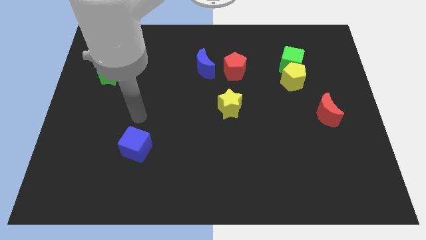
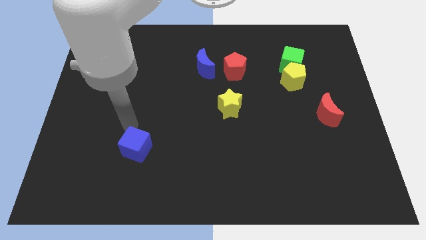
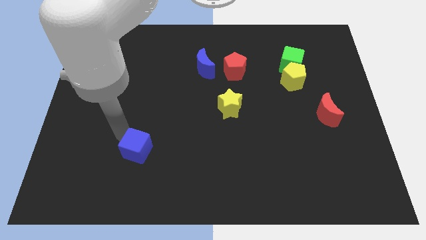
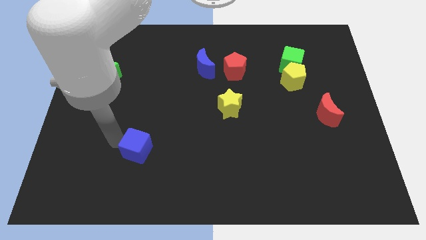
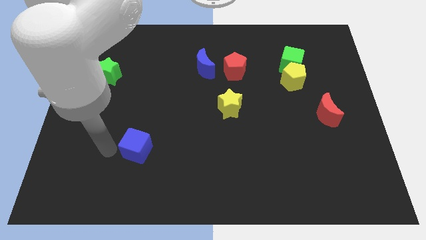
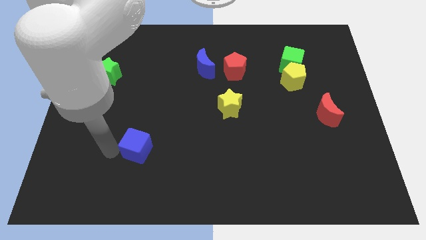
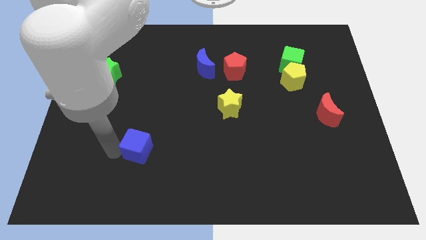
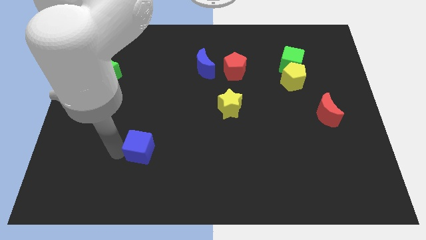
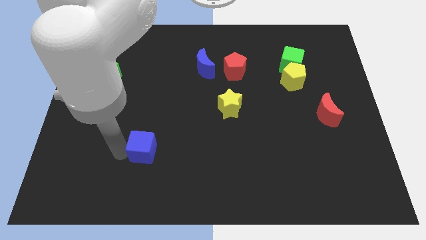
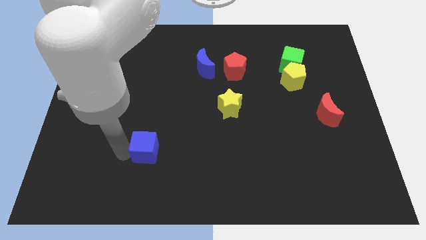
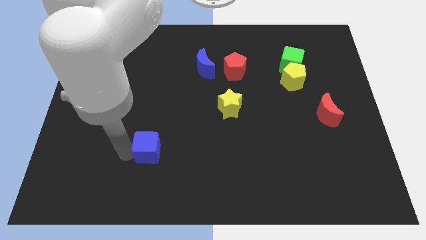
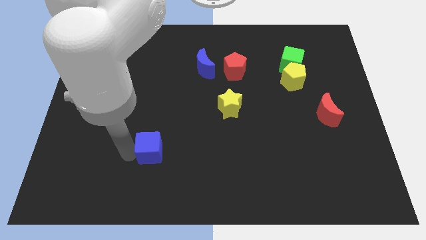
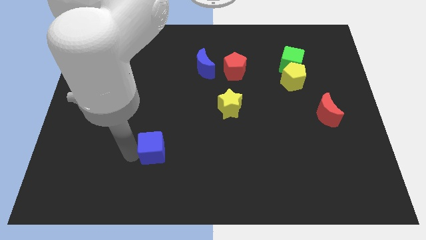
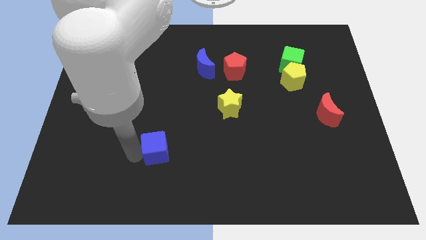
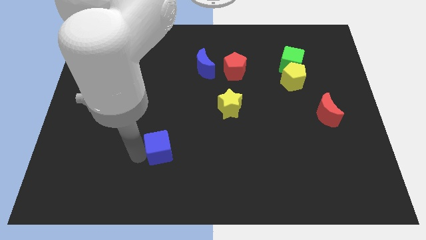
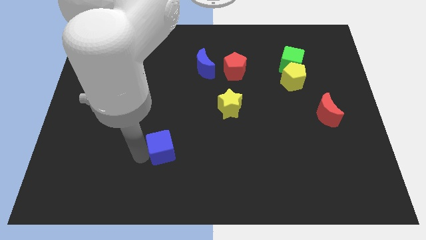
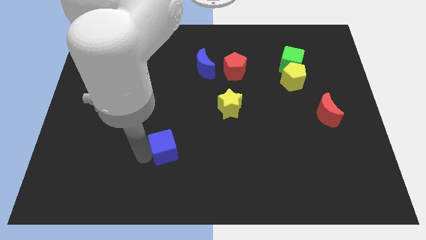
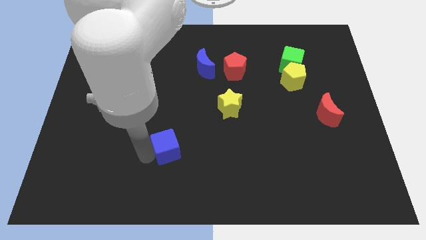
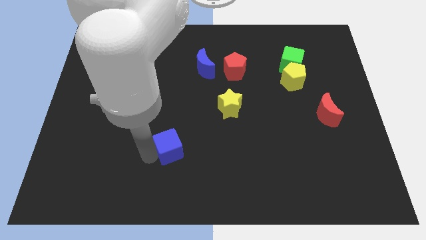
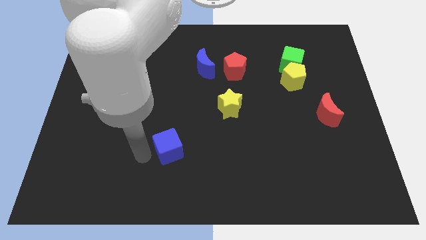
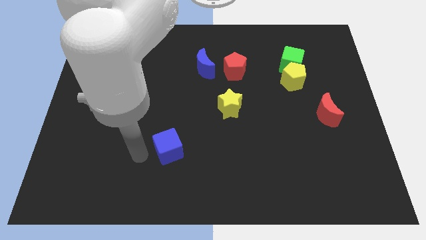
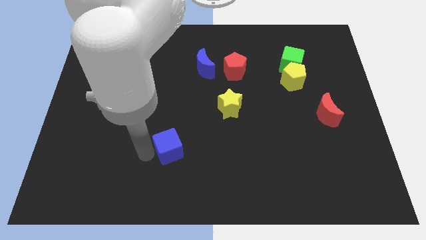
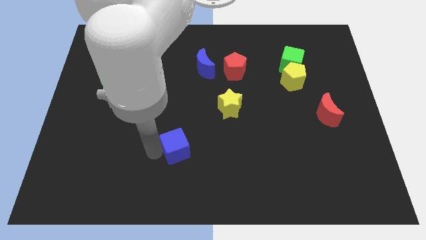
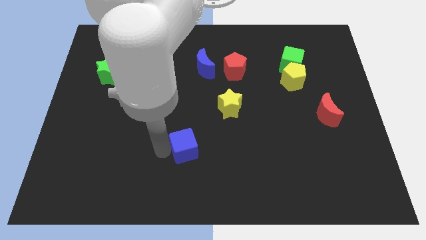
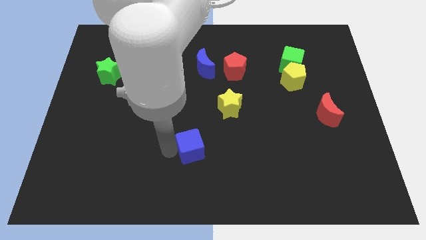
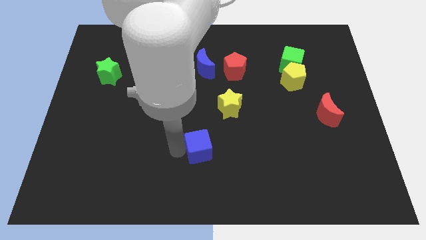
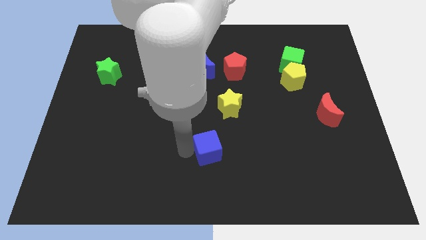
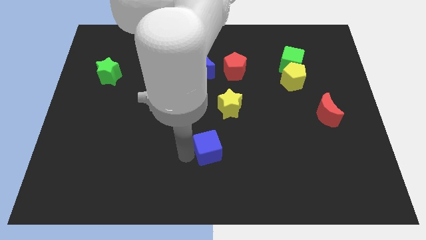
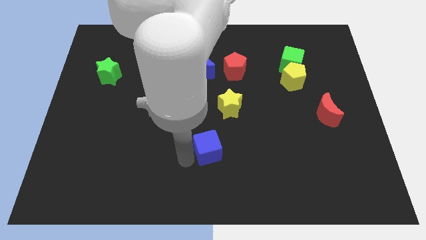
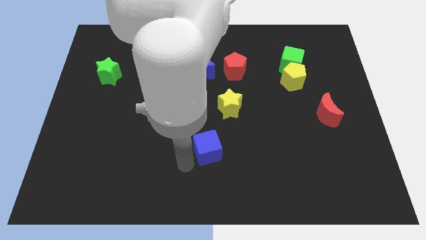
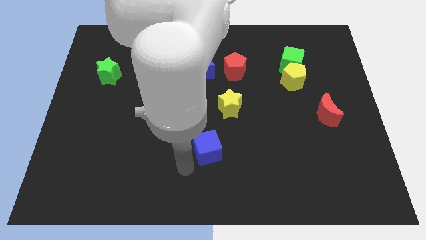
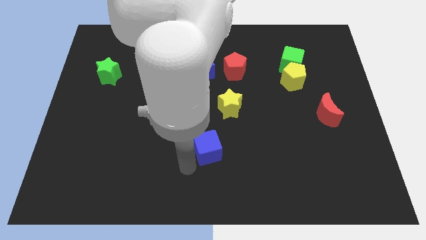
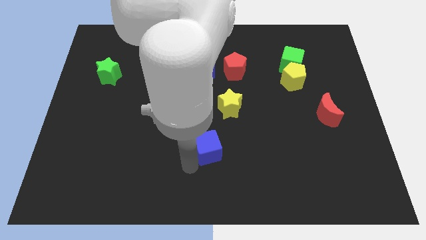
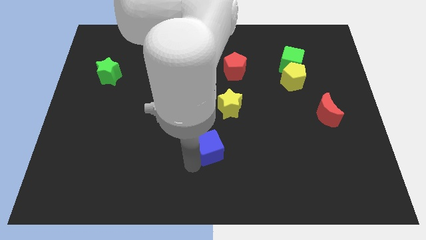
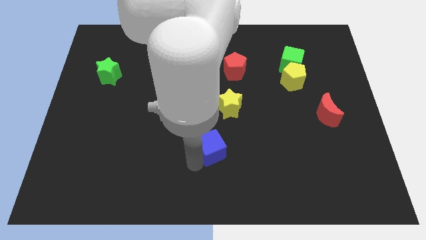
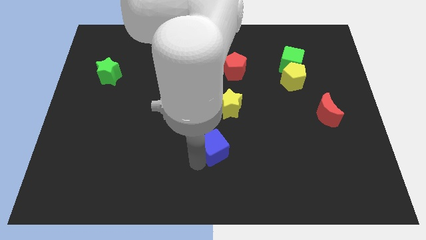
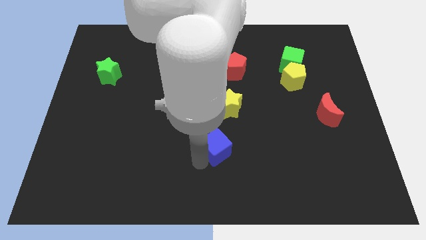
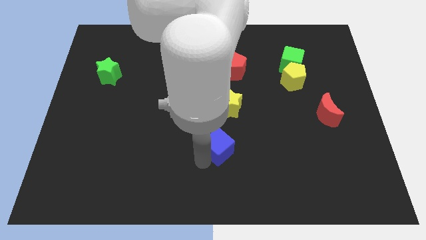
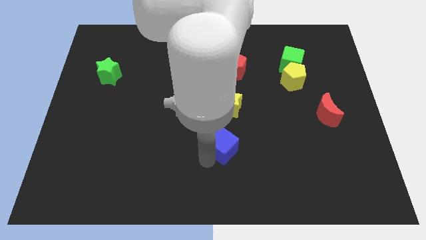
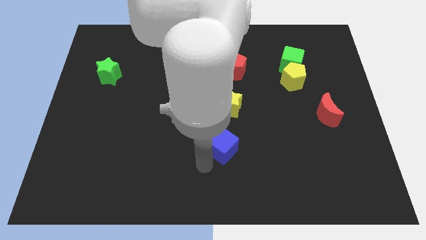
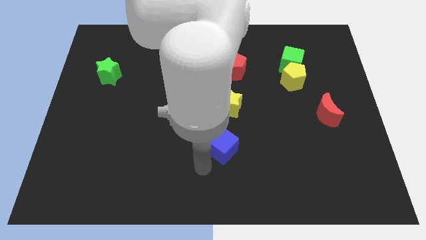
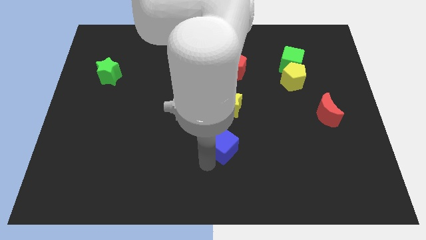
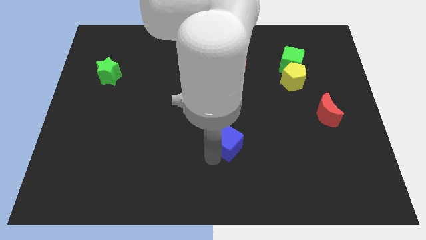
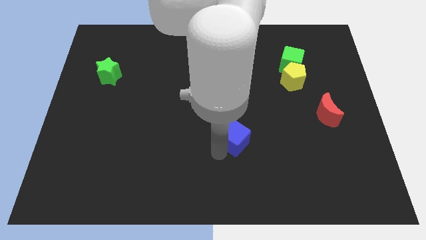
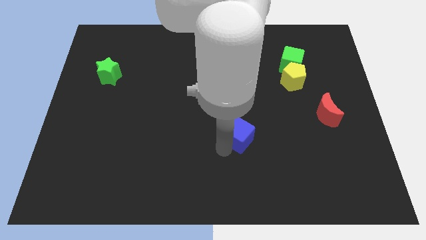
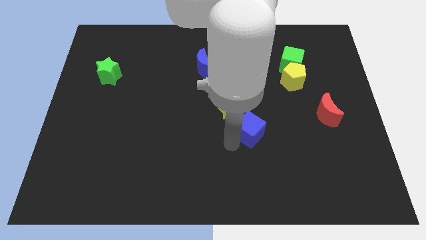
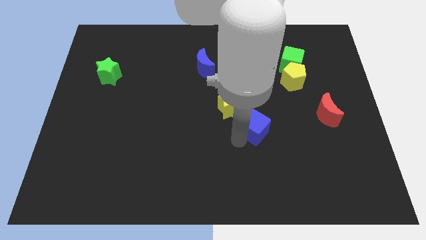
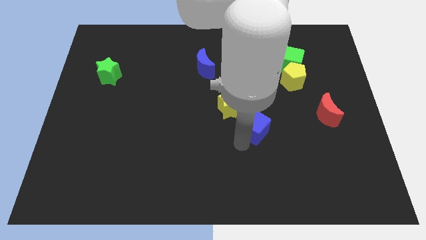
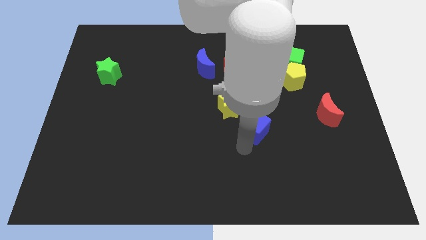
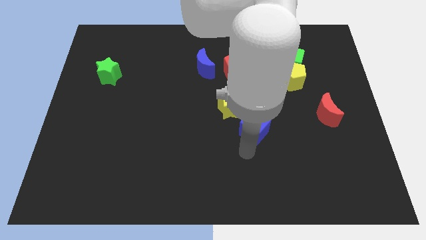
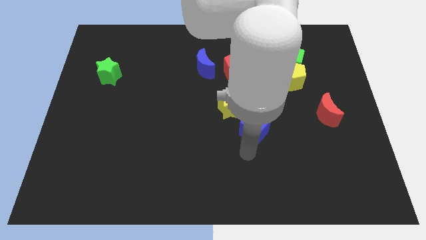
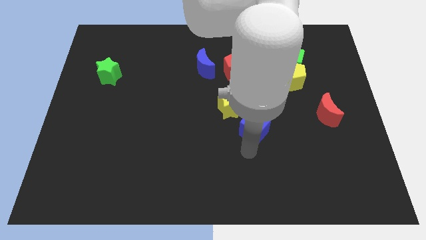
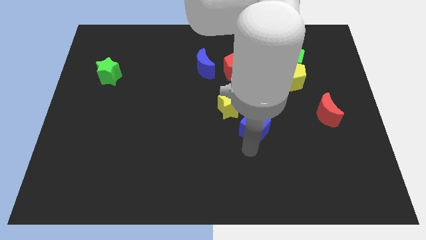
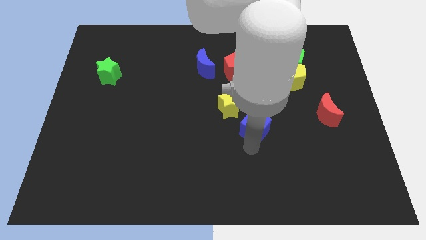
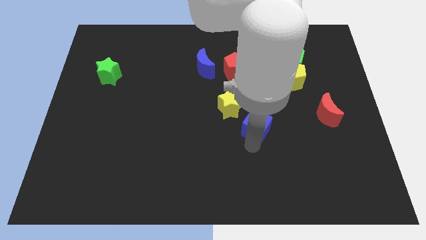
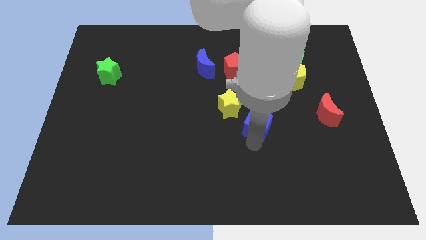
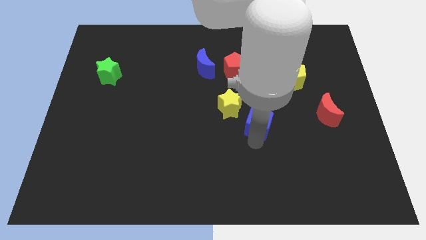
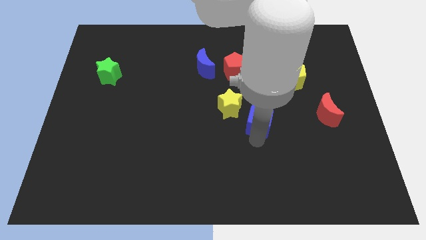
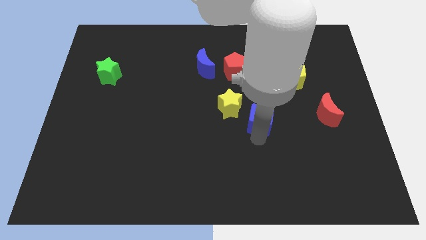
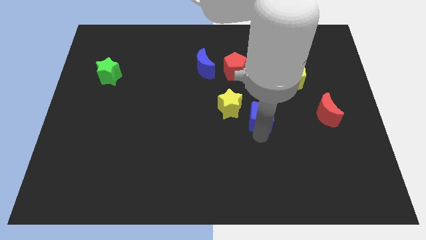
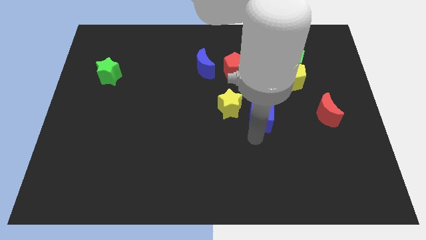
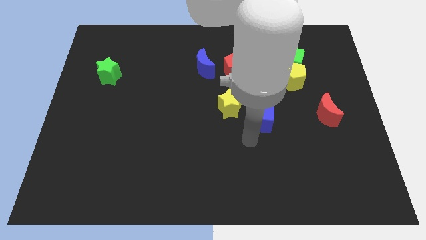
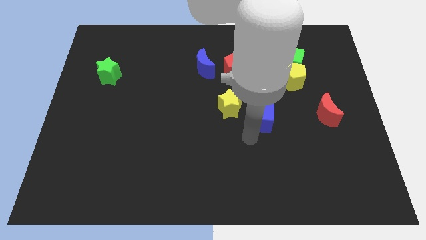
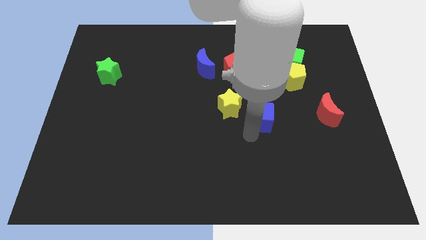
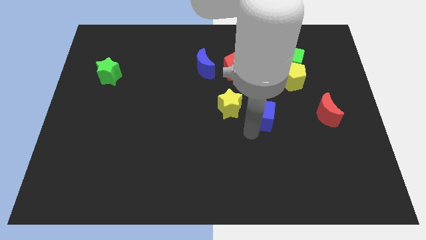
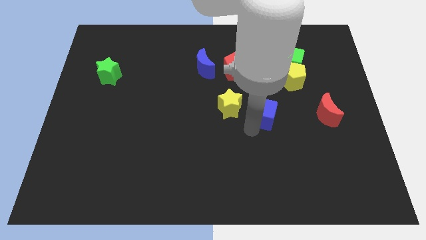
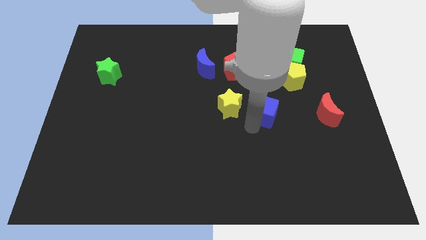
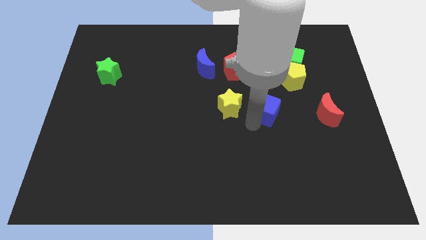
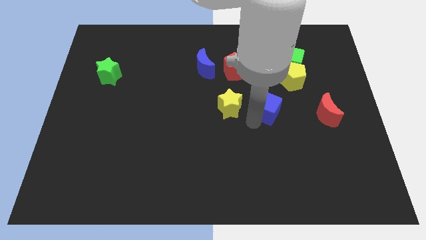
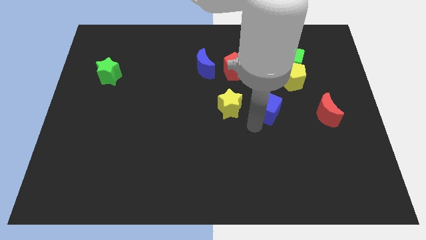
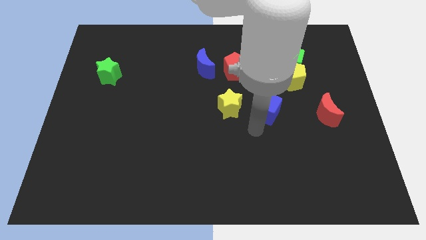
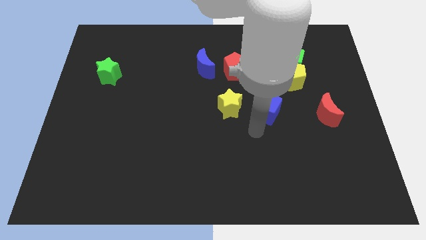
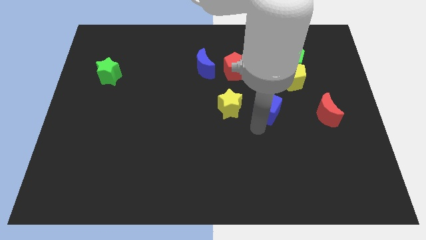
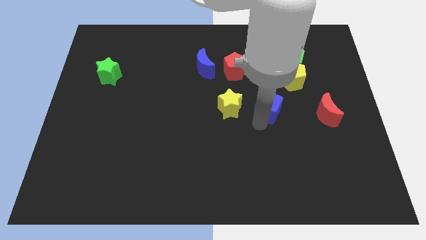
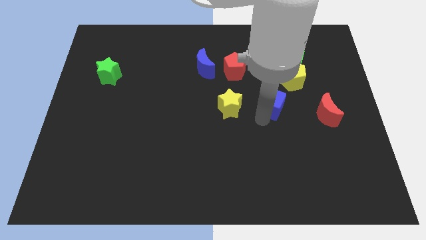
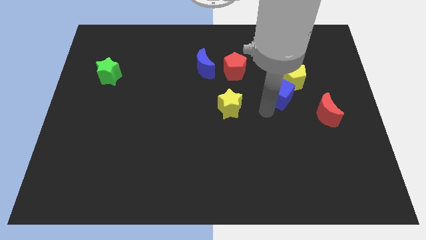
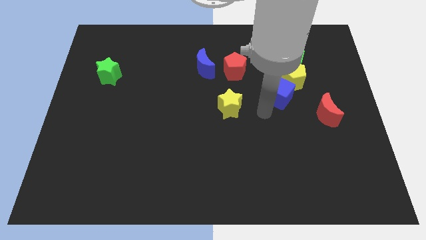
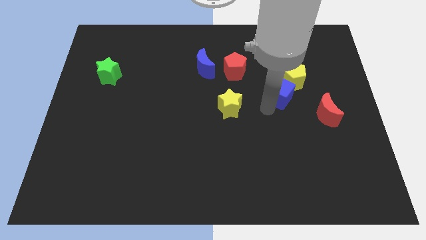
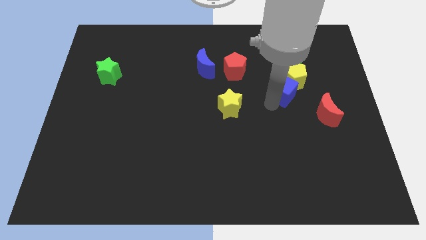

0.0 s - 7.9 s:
slide the blue cube to the yellow pentagon

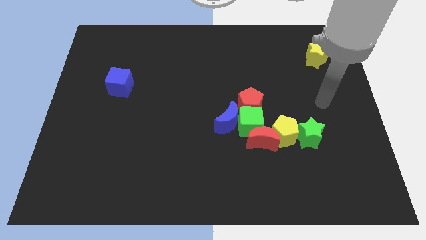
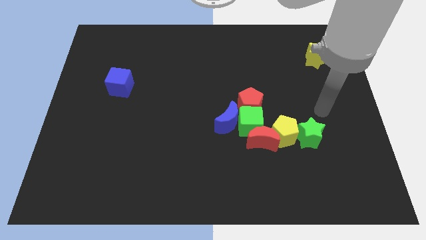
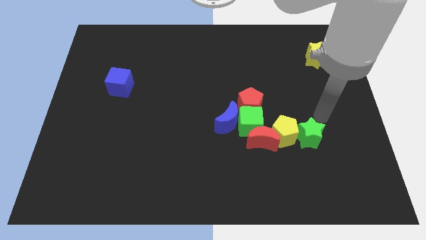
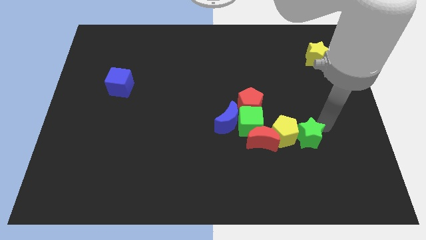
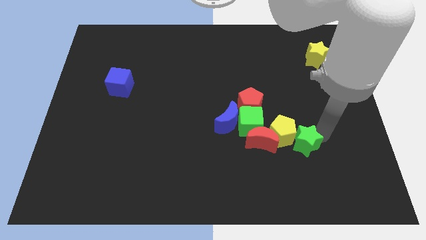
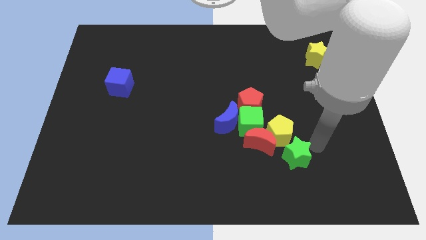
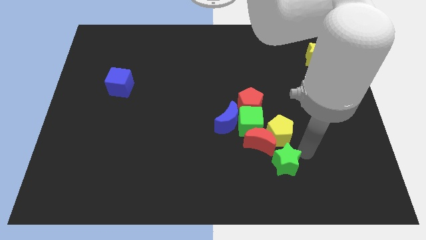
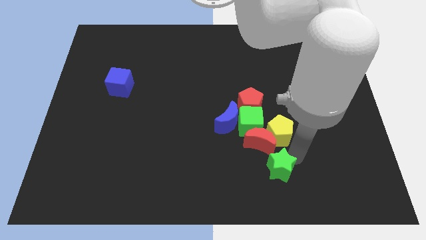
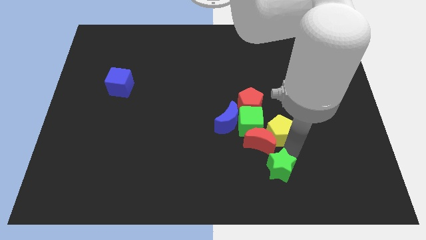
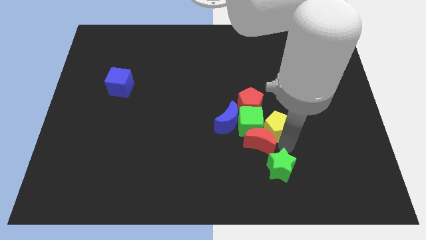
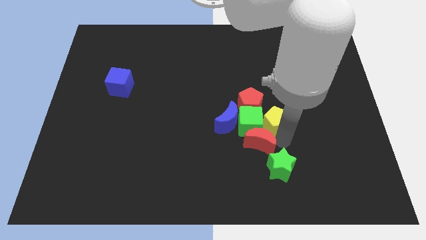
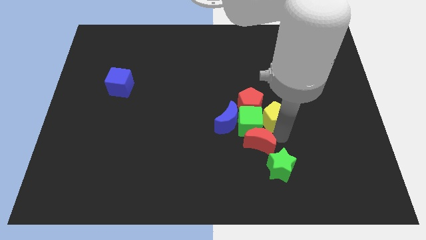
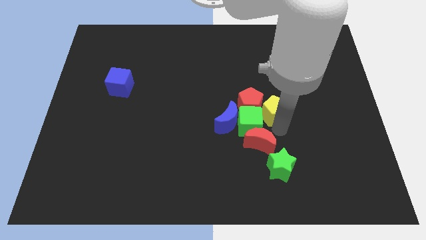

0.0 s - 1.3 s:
put the yellow pentagon next to the red pentagon
